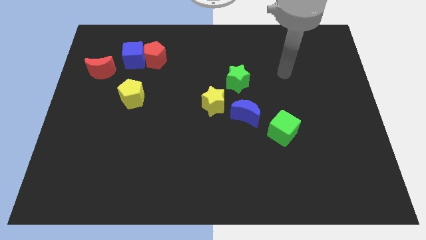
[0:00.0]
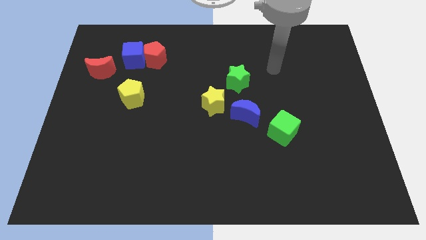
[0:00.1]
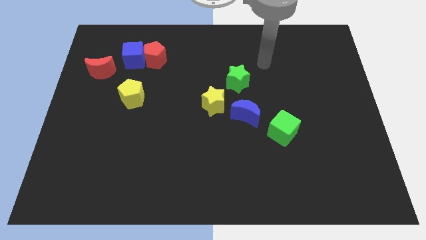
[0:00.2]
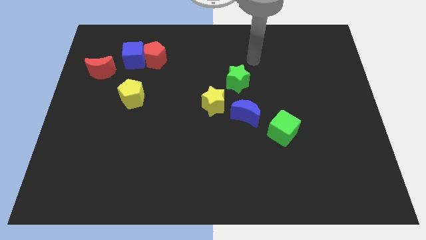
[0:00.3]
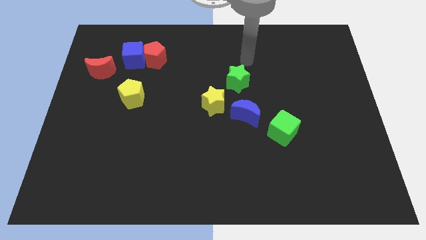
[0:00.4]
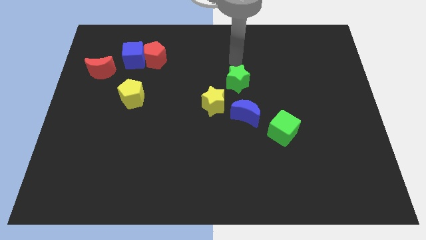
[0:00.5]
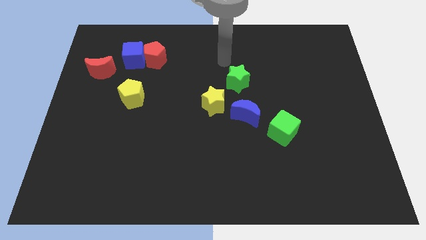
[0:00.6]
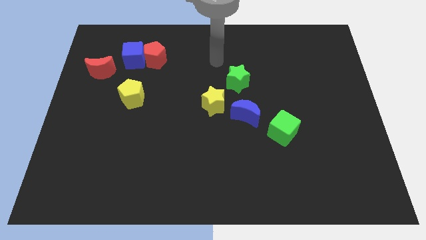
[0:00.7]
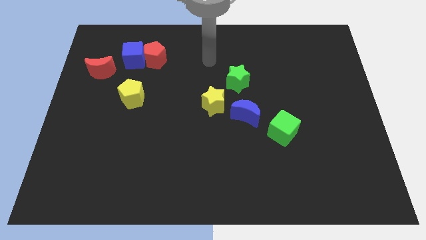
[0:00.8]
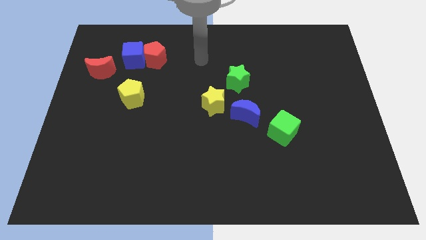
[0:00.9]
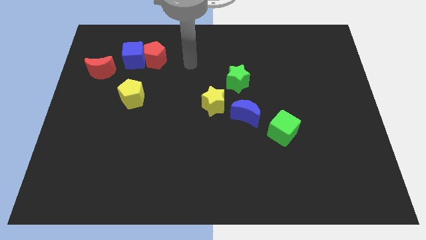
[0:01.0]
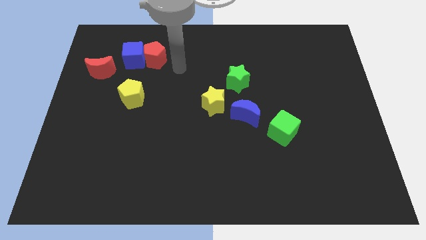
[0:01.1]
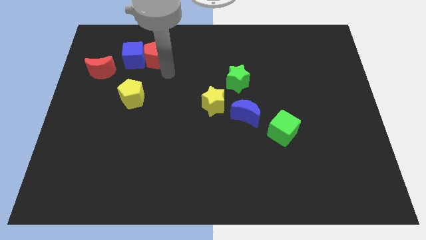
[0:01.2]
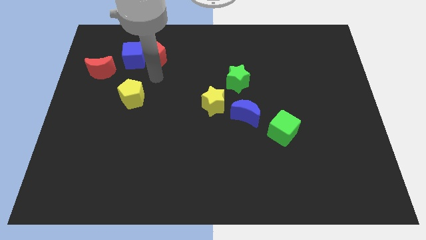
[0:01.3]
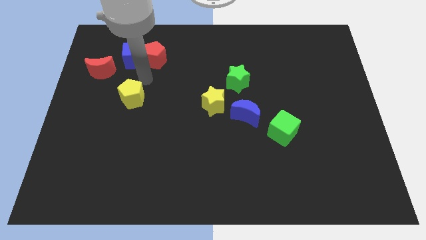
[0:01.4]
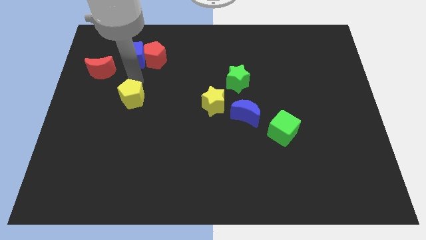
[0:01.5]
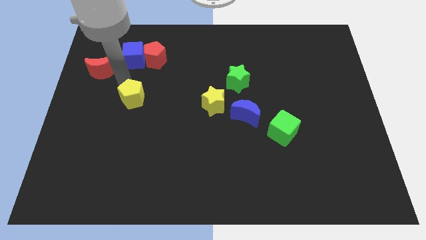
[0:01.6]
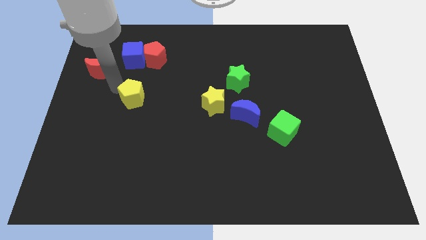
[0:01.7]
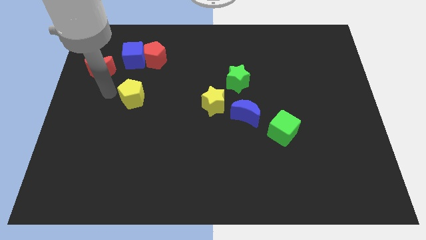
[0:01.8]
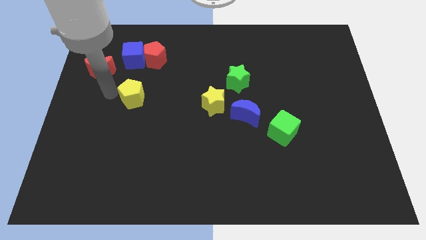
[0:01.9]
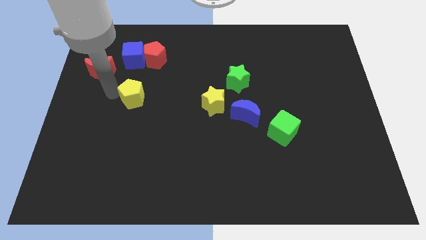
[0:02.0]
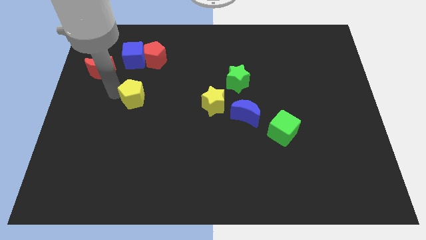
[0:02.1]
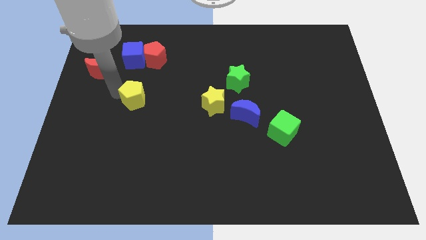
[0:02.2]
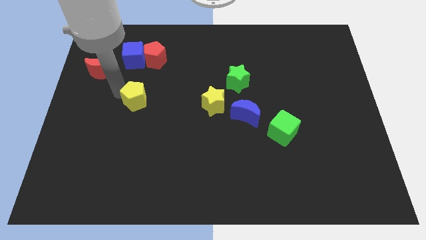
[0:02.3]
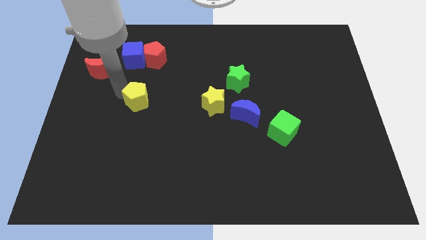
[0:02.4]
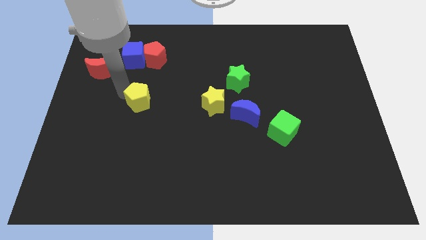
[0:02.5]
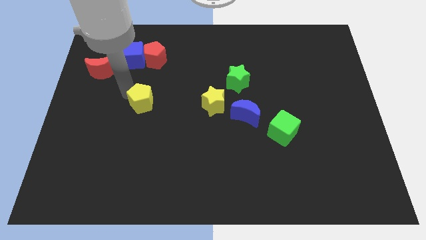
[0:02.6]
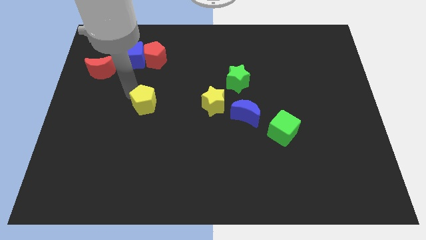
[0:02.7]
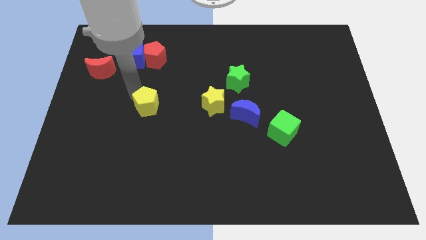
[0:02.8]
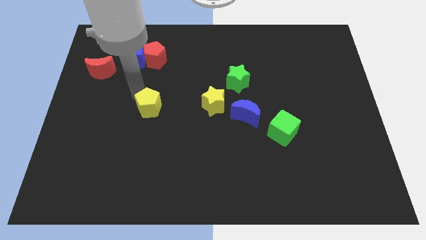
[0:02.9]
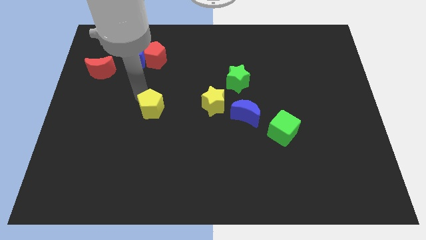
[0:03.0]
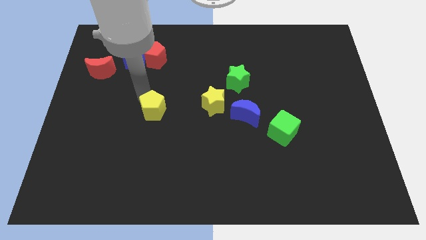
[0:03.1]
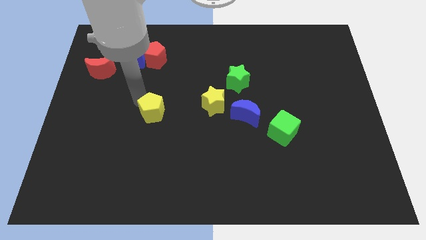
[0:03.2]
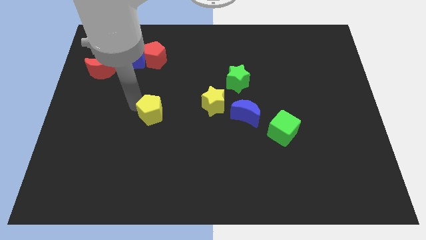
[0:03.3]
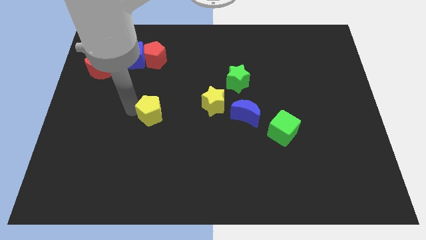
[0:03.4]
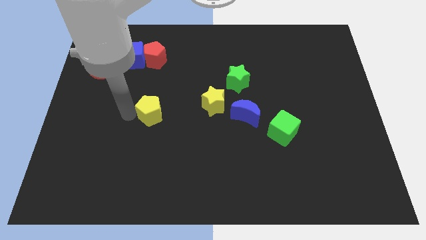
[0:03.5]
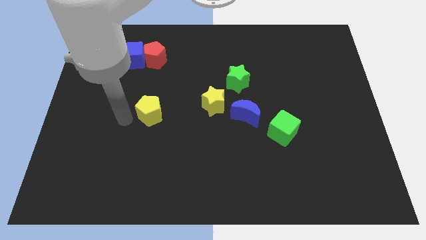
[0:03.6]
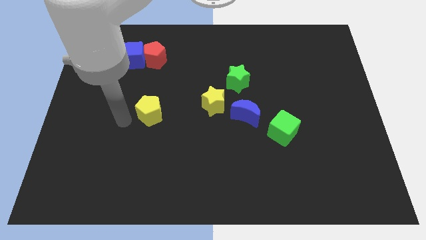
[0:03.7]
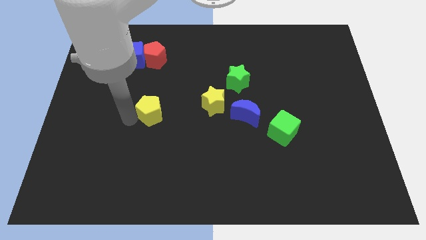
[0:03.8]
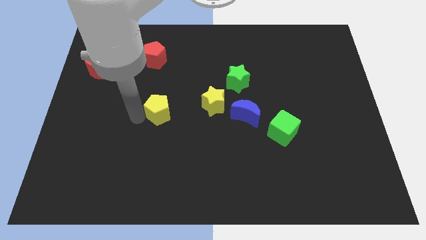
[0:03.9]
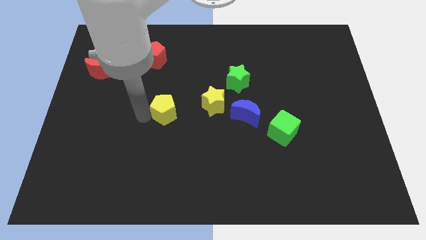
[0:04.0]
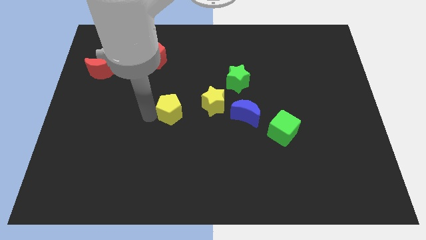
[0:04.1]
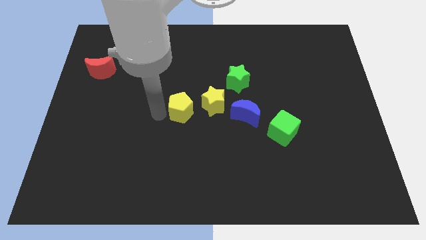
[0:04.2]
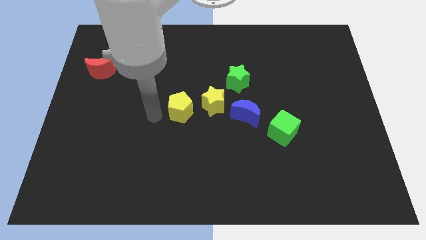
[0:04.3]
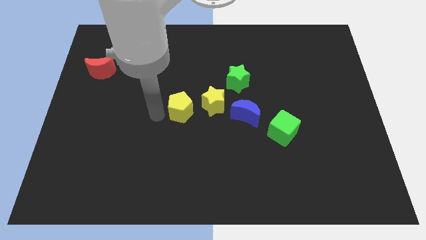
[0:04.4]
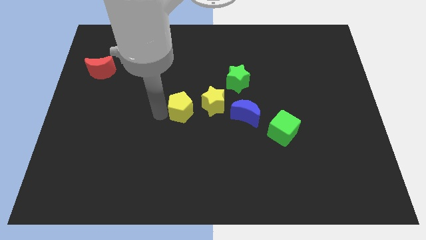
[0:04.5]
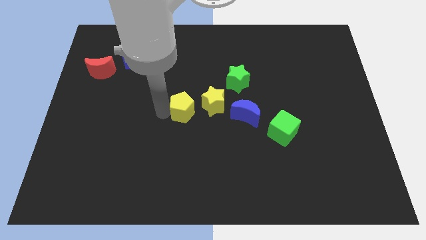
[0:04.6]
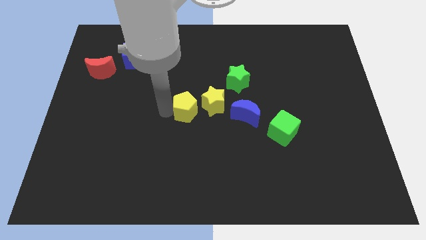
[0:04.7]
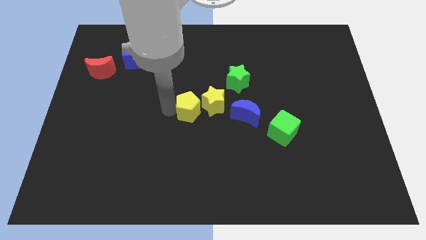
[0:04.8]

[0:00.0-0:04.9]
move the yellow pentagon close to the yellow star

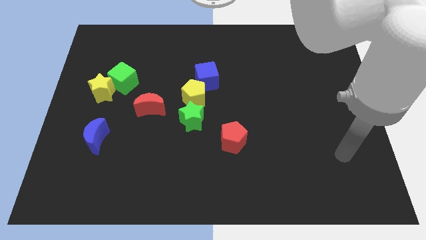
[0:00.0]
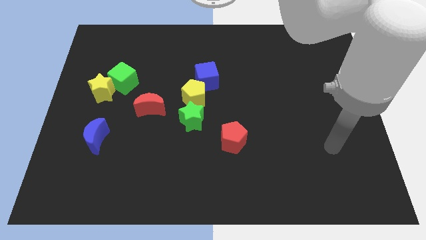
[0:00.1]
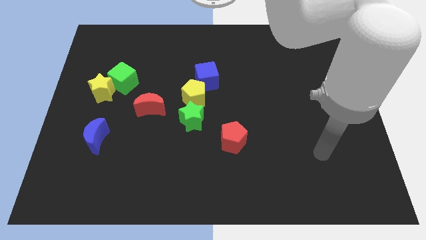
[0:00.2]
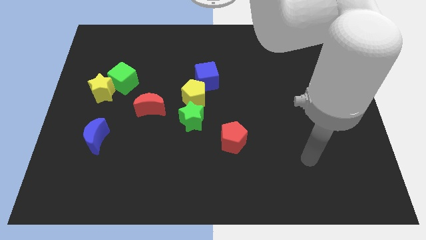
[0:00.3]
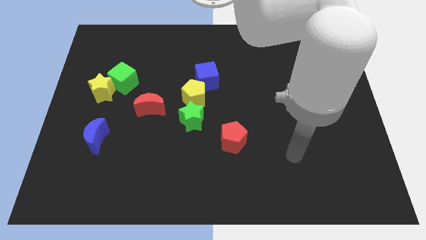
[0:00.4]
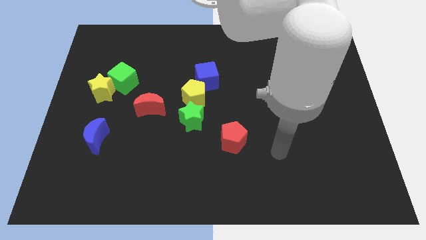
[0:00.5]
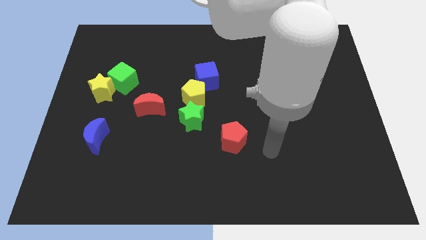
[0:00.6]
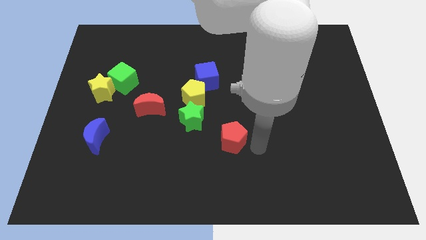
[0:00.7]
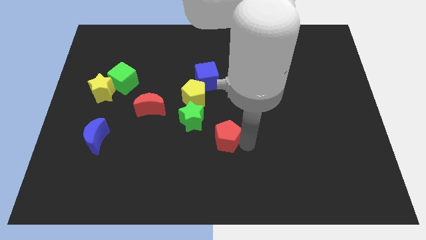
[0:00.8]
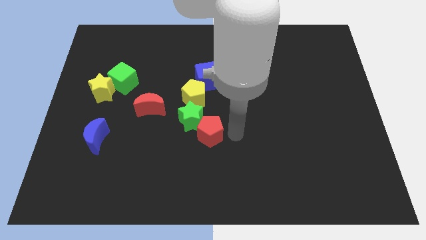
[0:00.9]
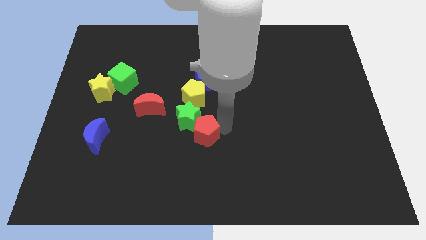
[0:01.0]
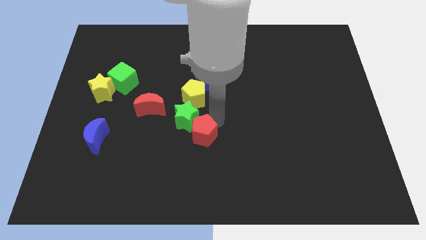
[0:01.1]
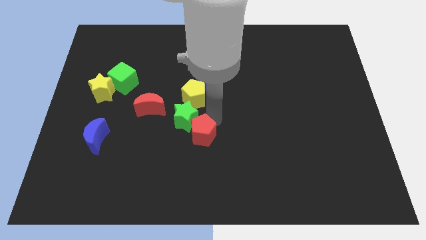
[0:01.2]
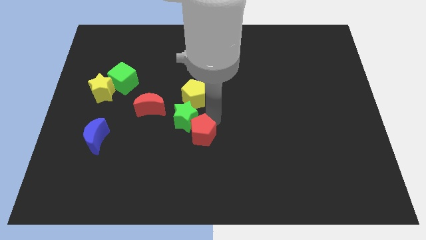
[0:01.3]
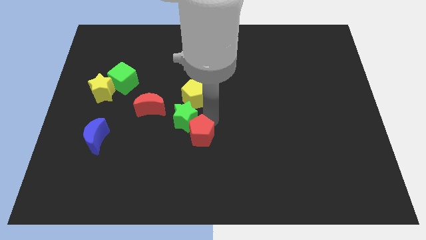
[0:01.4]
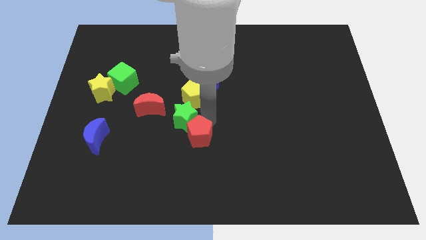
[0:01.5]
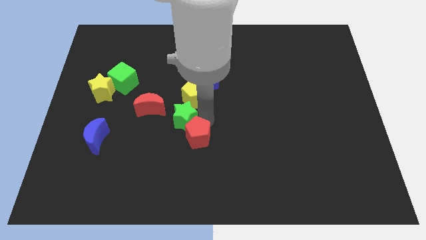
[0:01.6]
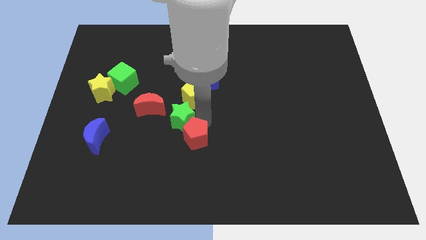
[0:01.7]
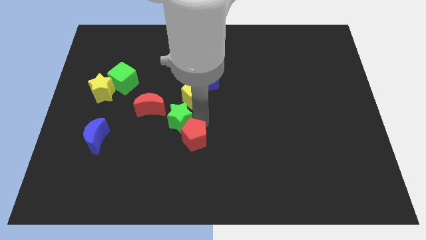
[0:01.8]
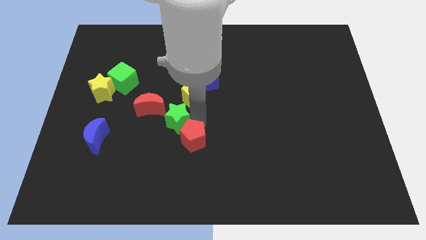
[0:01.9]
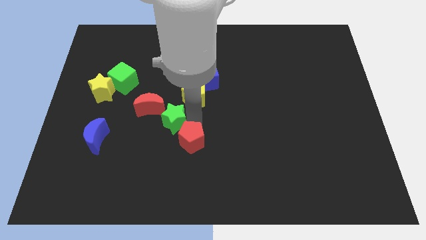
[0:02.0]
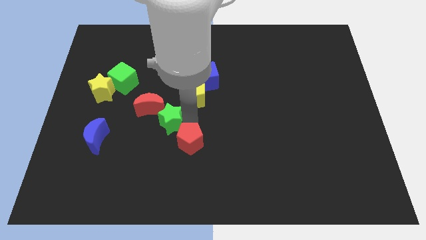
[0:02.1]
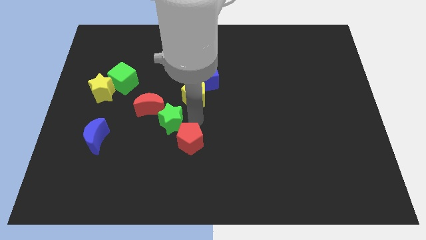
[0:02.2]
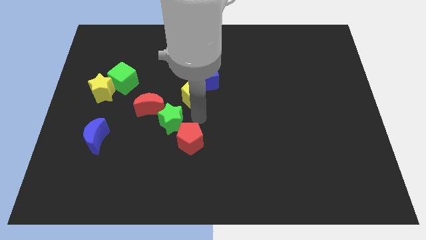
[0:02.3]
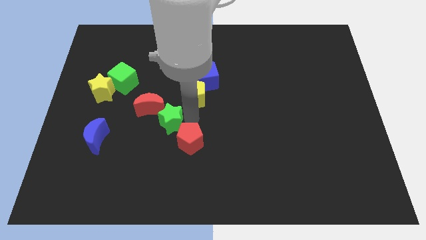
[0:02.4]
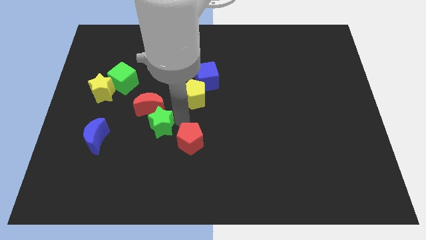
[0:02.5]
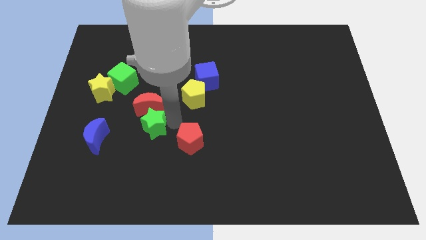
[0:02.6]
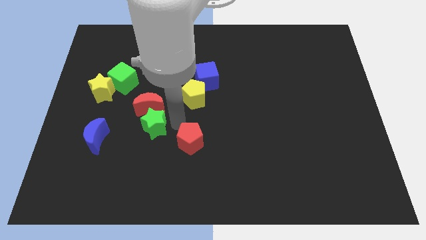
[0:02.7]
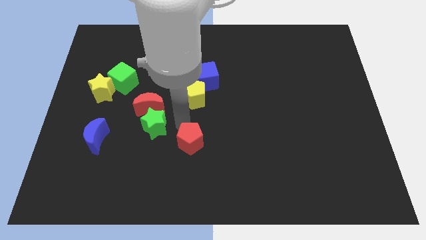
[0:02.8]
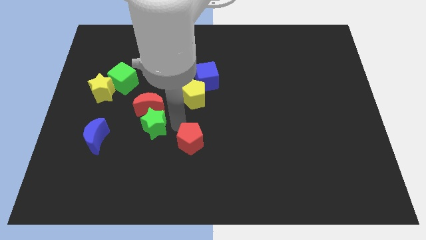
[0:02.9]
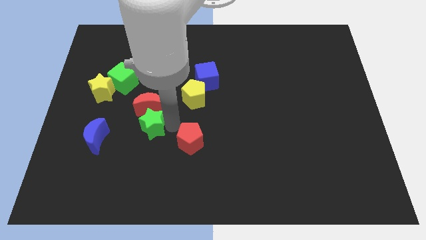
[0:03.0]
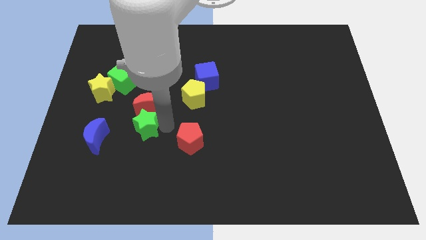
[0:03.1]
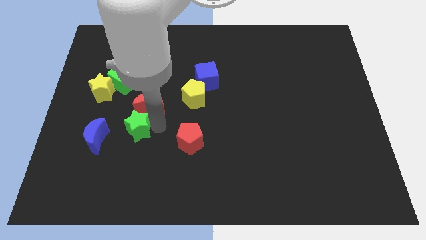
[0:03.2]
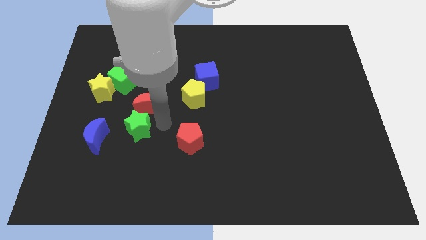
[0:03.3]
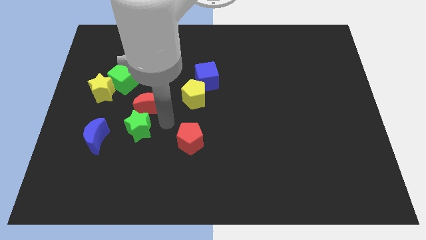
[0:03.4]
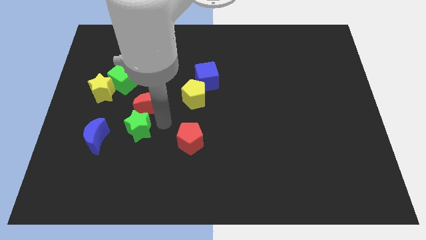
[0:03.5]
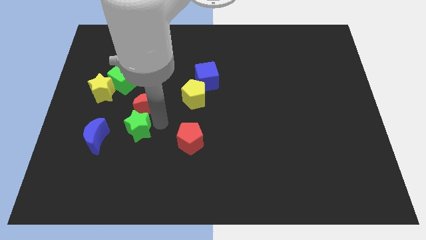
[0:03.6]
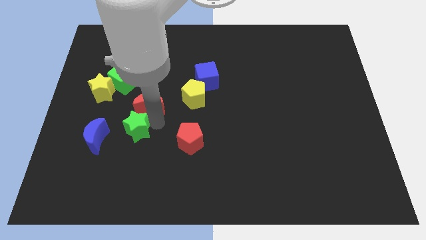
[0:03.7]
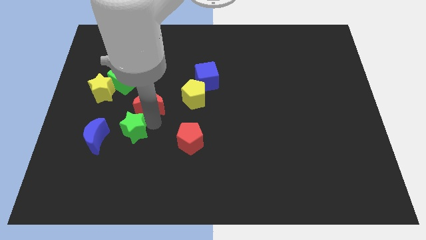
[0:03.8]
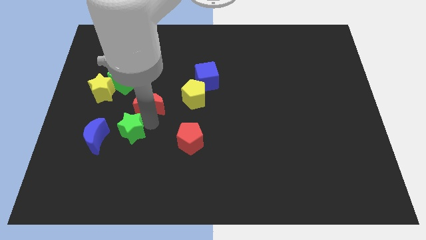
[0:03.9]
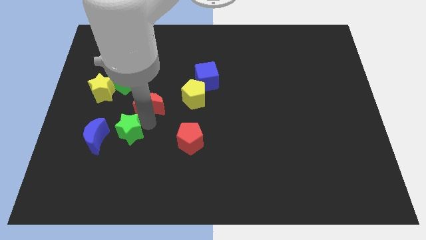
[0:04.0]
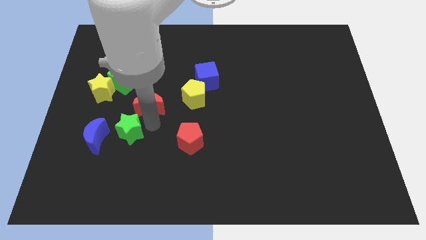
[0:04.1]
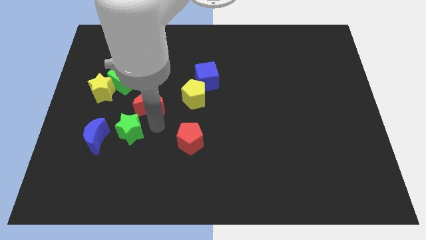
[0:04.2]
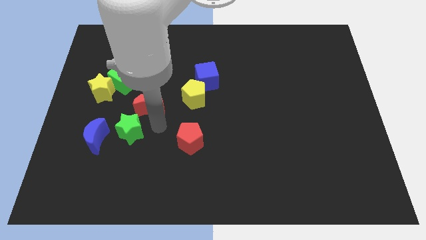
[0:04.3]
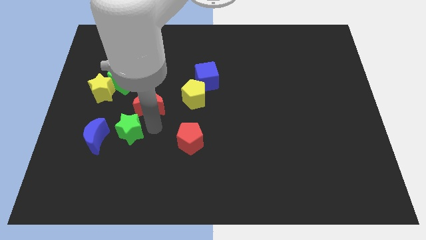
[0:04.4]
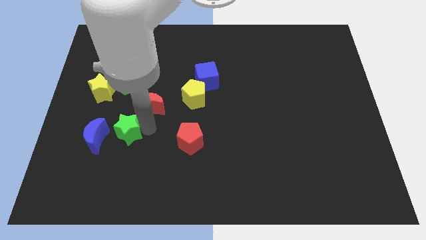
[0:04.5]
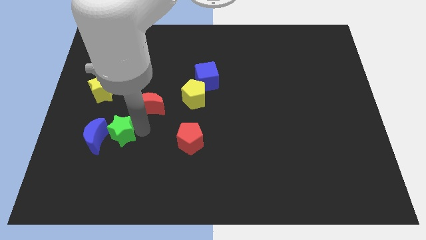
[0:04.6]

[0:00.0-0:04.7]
push the green star close to the blue moon
